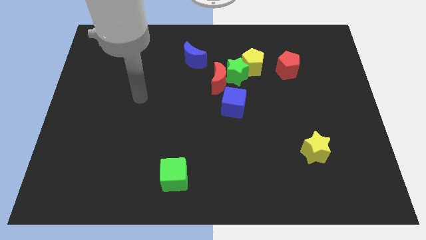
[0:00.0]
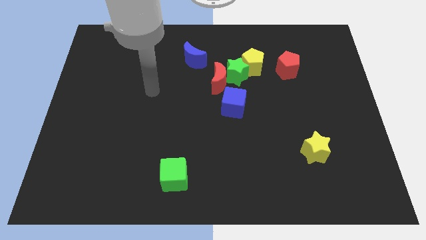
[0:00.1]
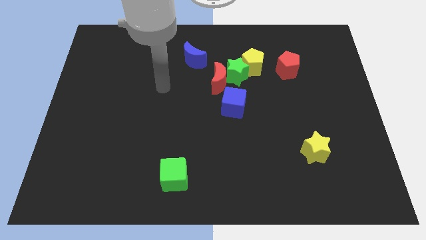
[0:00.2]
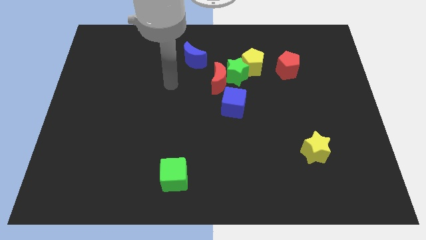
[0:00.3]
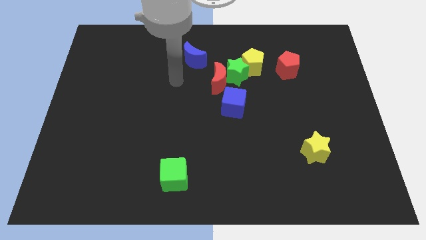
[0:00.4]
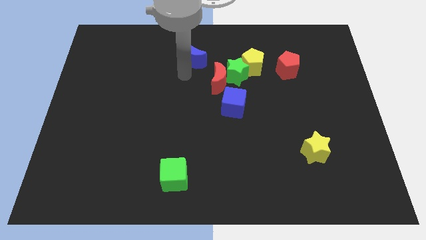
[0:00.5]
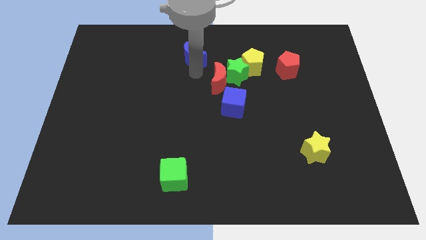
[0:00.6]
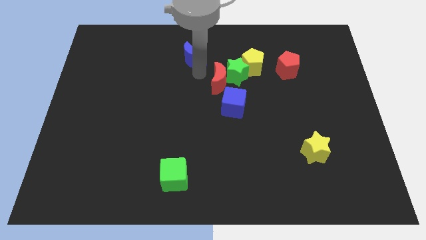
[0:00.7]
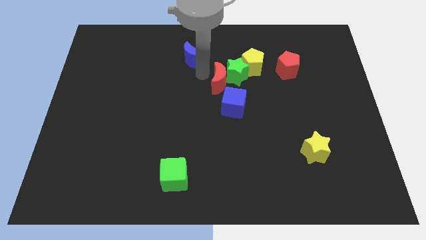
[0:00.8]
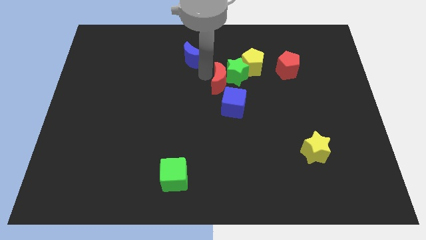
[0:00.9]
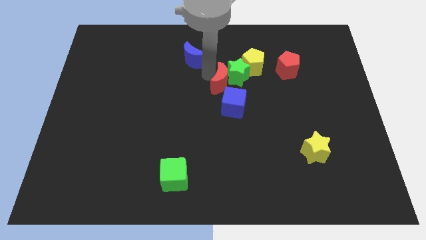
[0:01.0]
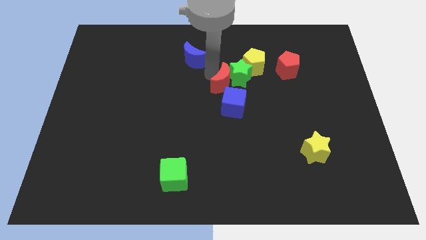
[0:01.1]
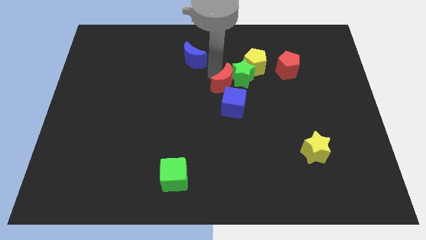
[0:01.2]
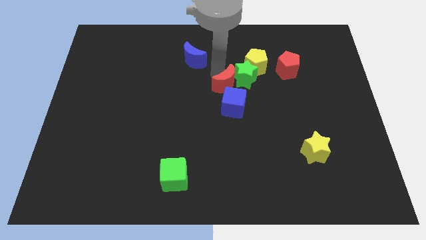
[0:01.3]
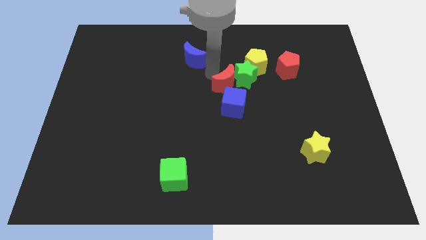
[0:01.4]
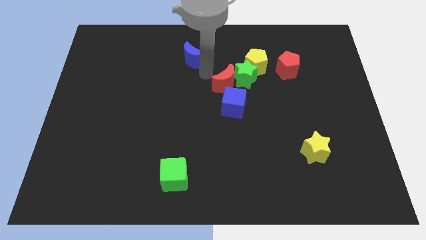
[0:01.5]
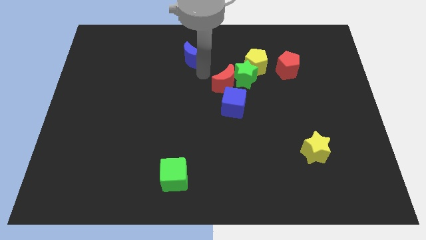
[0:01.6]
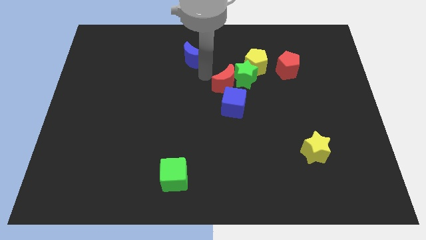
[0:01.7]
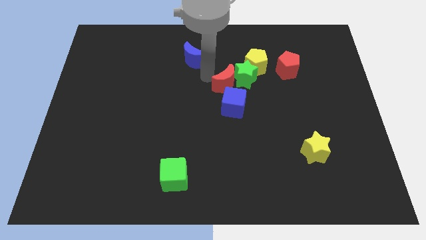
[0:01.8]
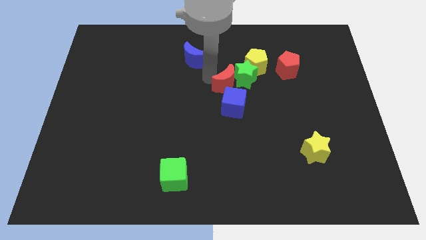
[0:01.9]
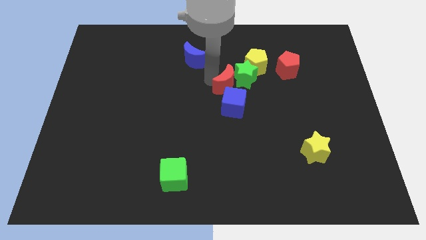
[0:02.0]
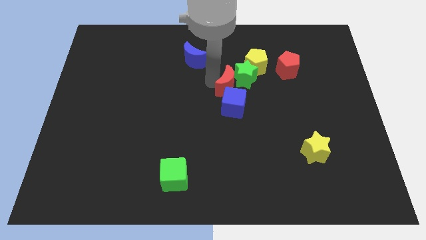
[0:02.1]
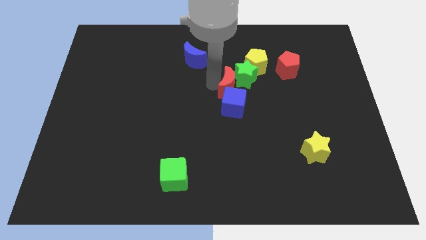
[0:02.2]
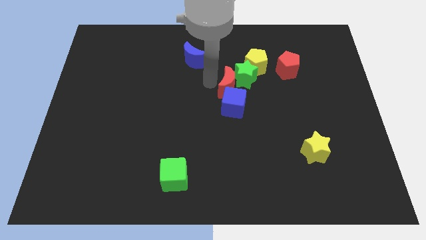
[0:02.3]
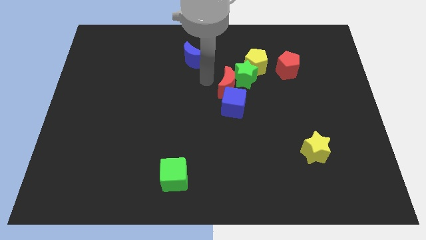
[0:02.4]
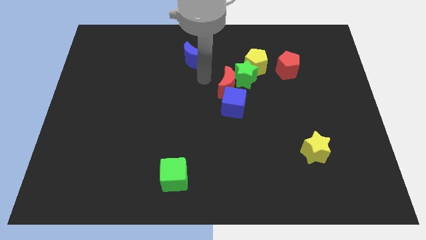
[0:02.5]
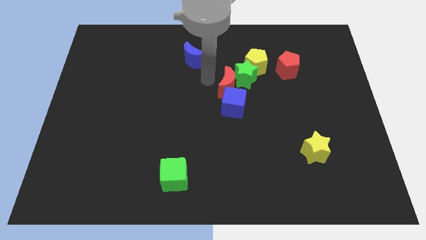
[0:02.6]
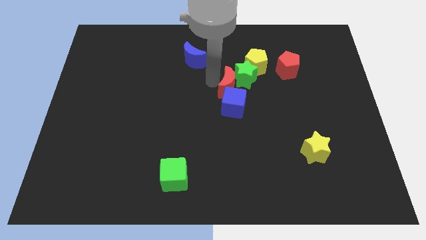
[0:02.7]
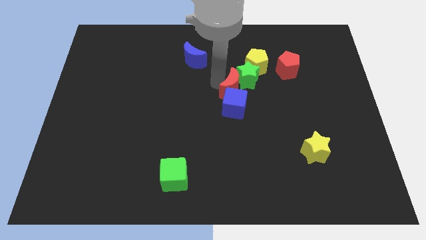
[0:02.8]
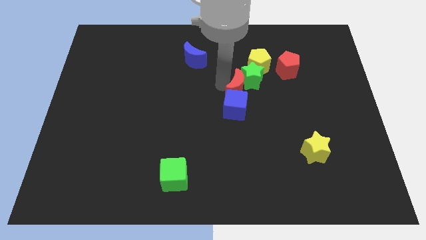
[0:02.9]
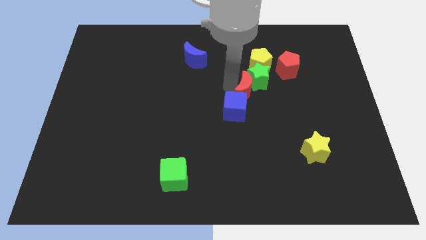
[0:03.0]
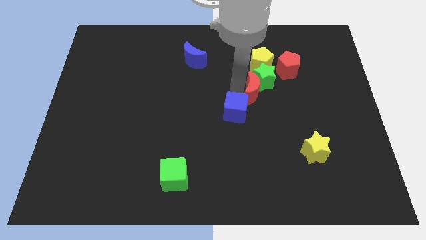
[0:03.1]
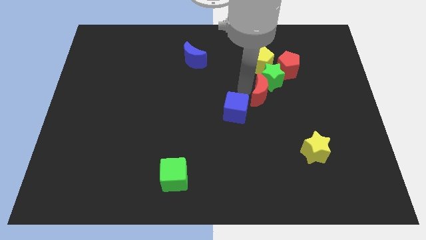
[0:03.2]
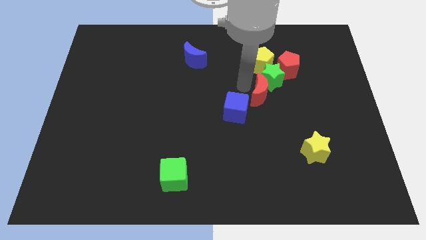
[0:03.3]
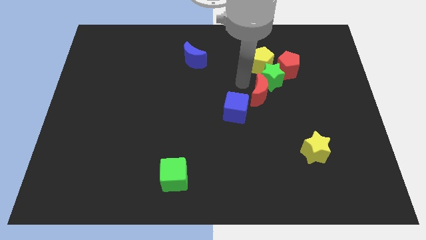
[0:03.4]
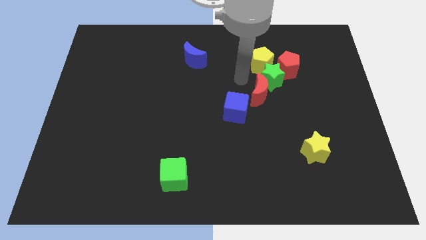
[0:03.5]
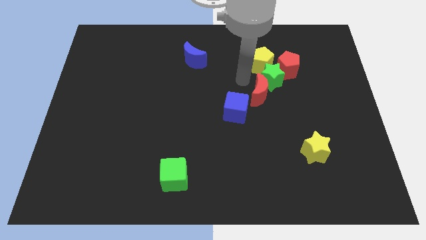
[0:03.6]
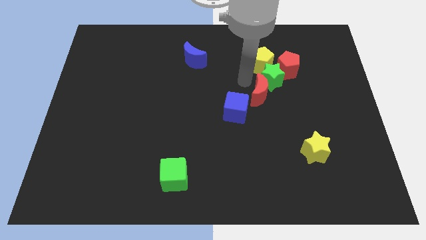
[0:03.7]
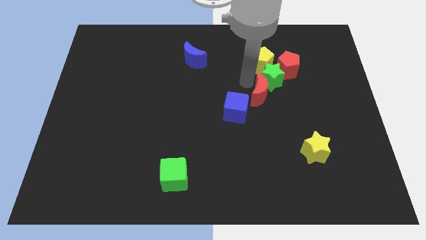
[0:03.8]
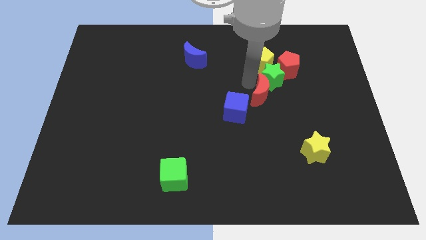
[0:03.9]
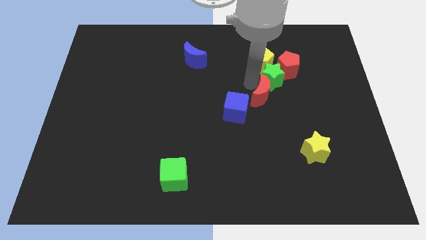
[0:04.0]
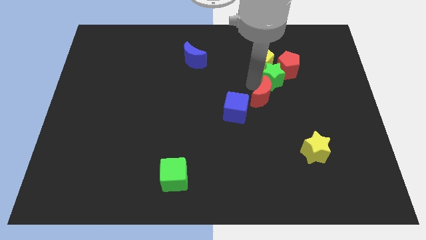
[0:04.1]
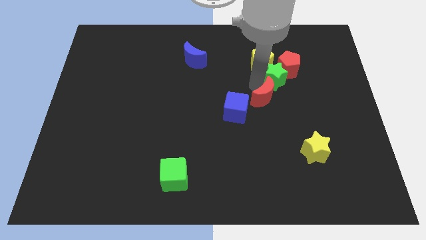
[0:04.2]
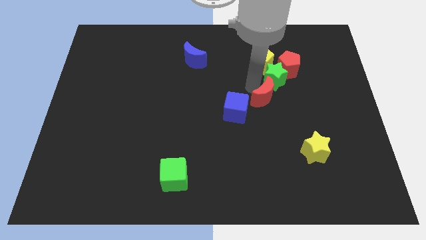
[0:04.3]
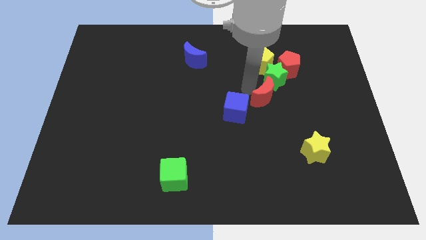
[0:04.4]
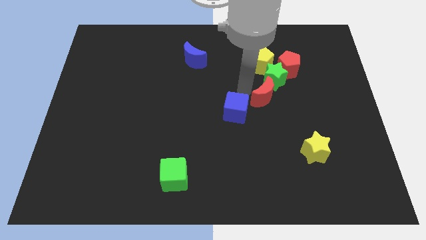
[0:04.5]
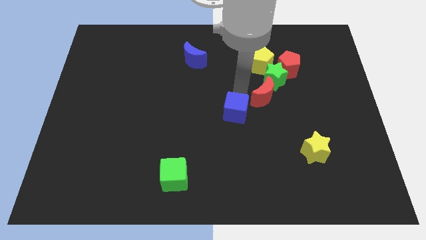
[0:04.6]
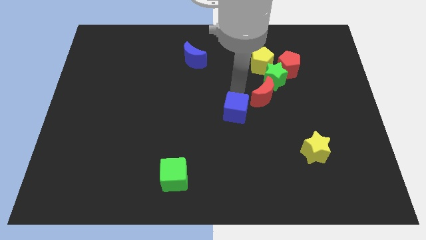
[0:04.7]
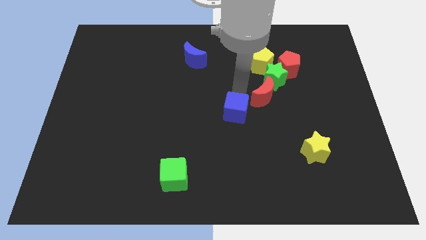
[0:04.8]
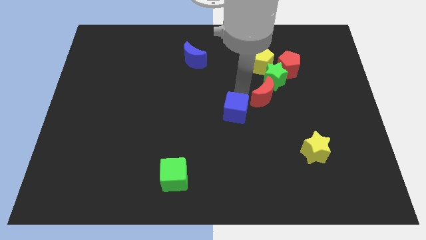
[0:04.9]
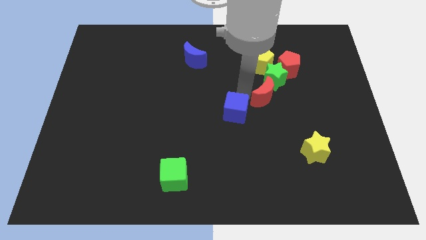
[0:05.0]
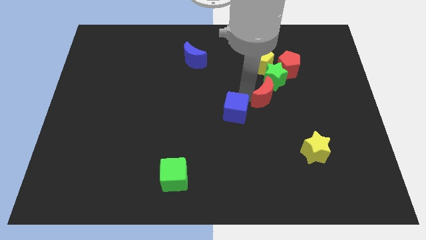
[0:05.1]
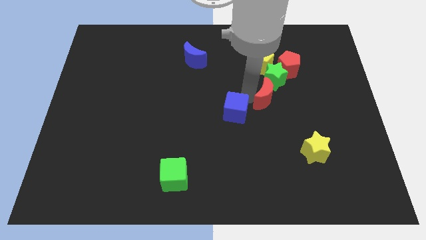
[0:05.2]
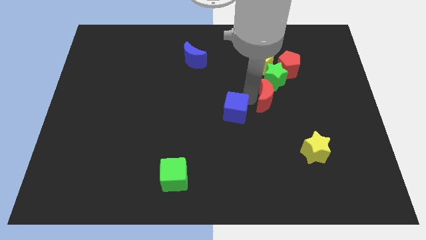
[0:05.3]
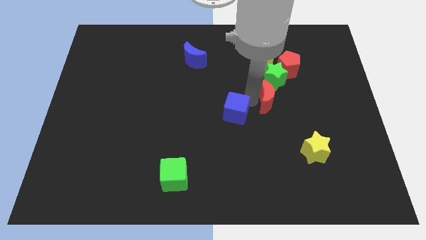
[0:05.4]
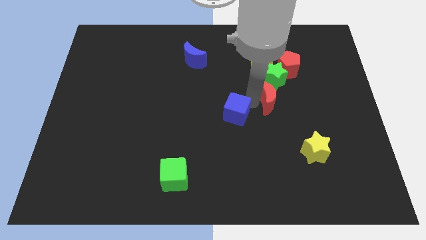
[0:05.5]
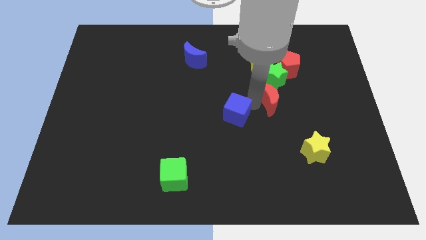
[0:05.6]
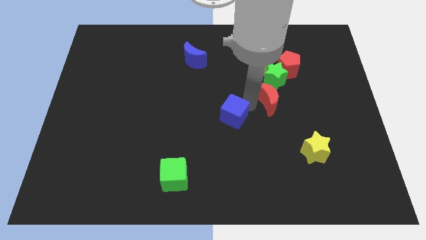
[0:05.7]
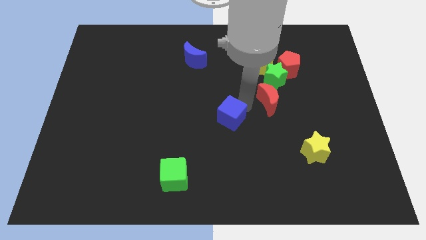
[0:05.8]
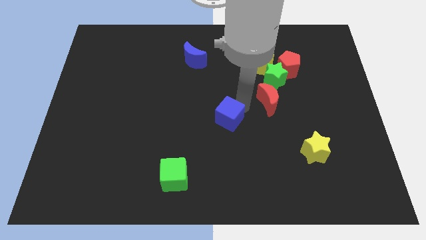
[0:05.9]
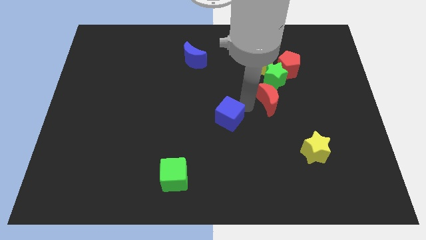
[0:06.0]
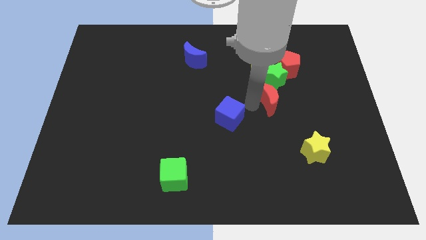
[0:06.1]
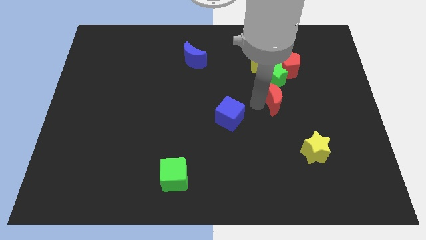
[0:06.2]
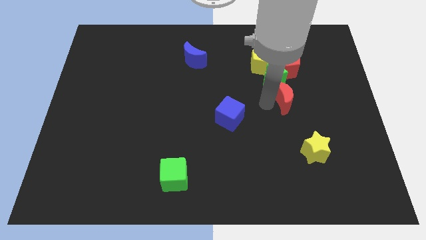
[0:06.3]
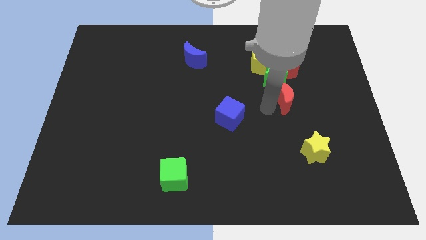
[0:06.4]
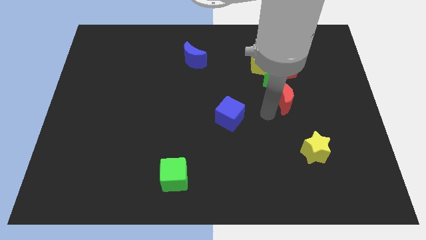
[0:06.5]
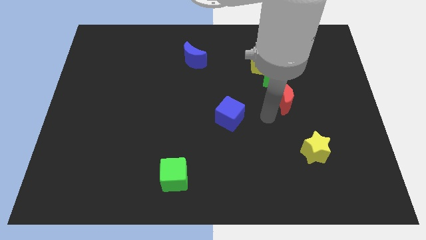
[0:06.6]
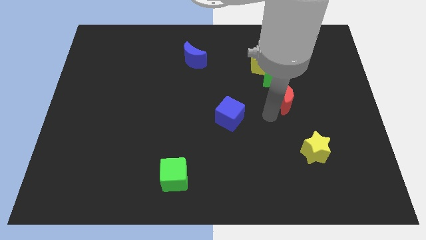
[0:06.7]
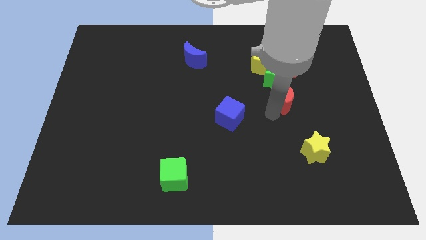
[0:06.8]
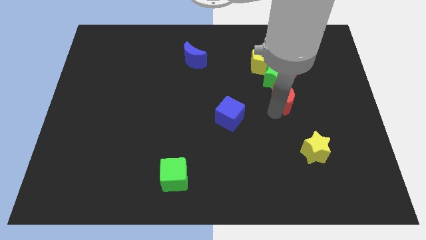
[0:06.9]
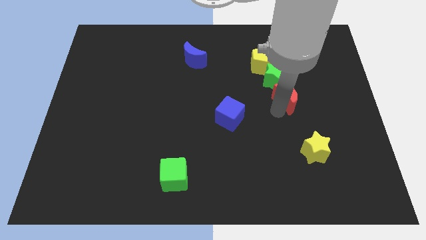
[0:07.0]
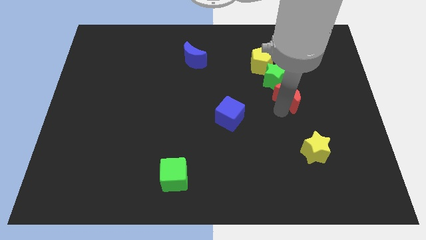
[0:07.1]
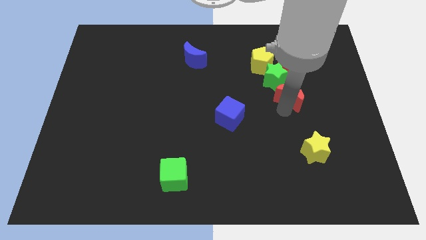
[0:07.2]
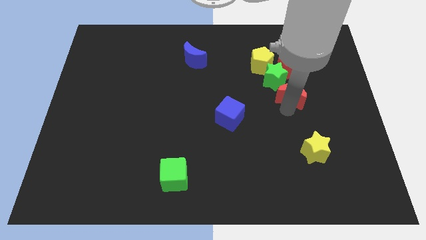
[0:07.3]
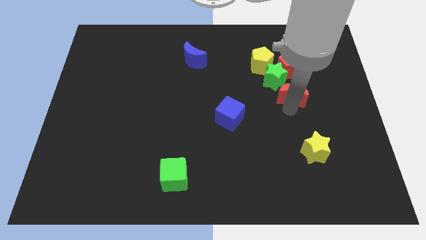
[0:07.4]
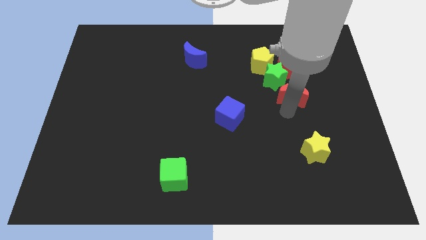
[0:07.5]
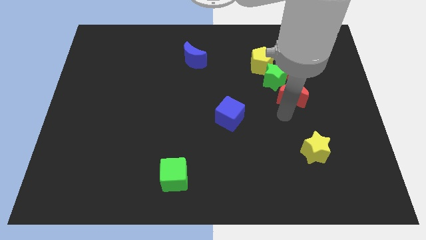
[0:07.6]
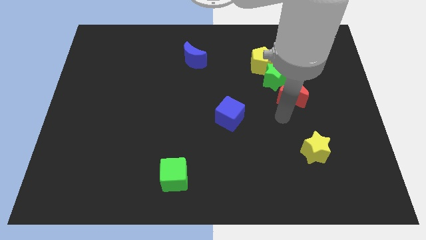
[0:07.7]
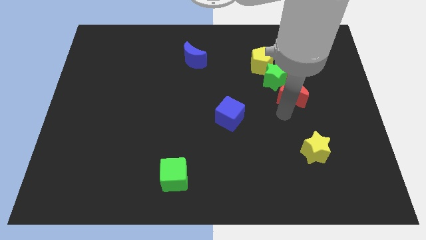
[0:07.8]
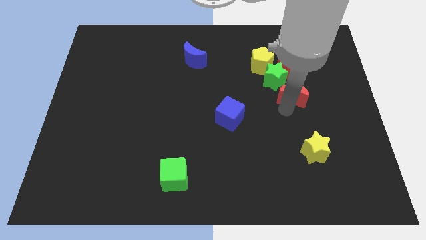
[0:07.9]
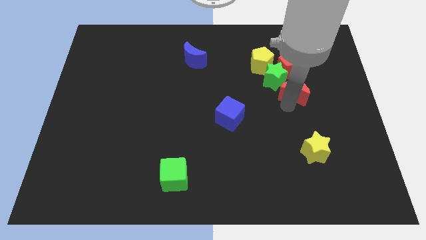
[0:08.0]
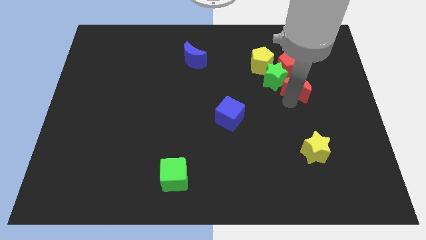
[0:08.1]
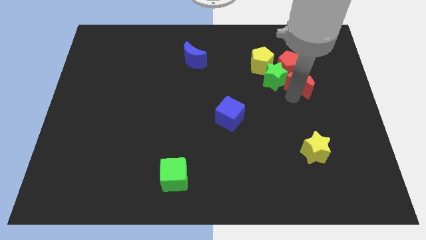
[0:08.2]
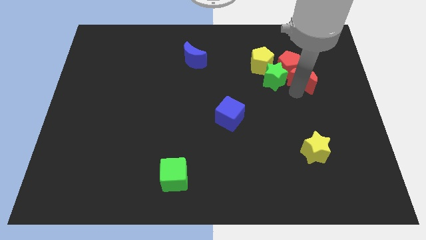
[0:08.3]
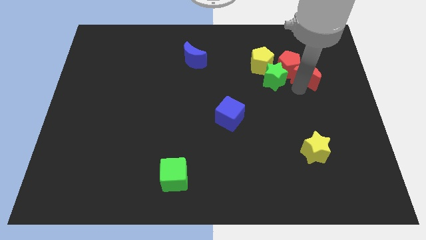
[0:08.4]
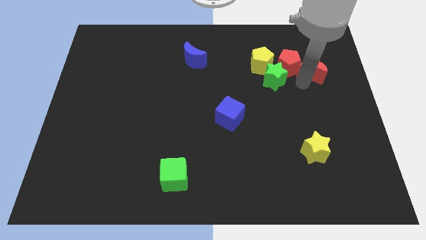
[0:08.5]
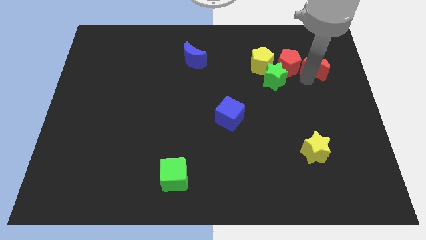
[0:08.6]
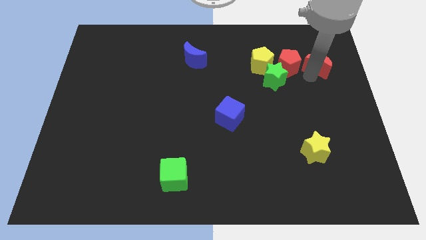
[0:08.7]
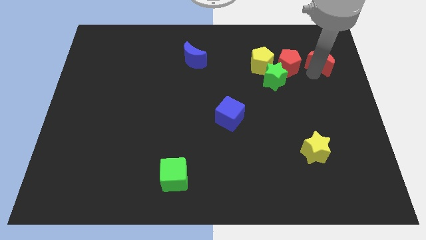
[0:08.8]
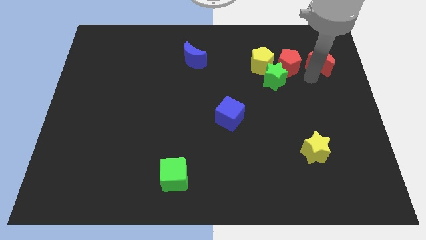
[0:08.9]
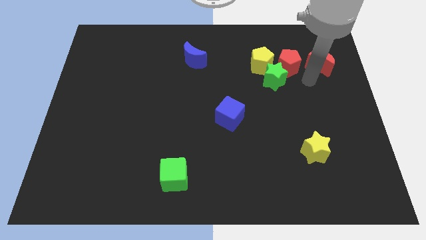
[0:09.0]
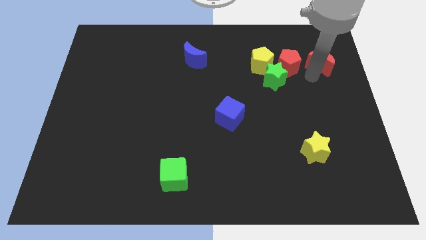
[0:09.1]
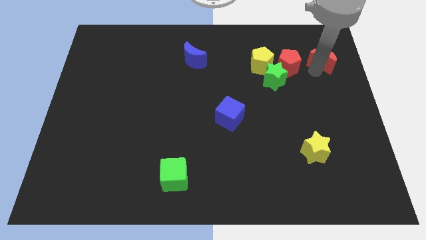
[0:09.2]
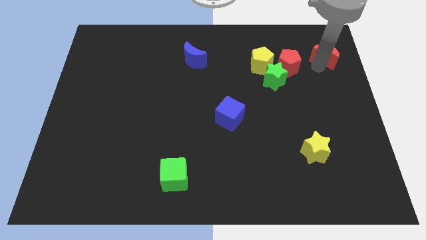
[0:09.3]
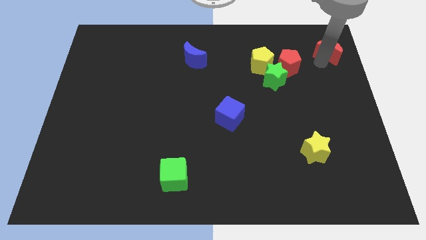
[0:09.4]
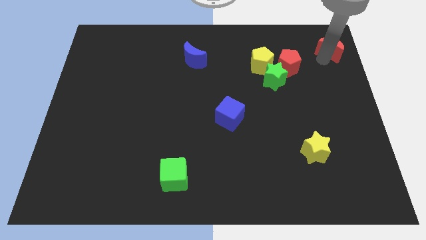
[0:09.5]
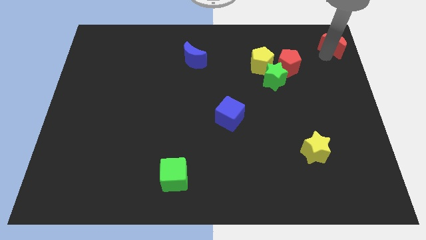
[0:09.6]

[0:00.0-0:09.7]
slide the red moon to the top right corner
